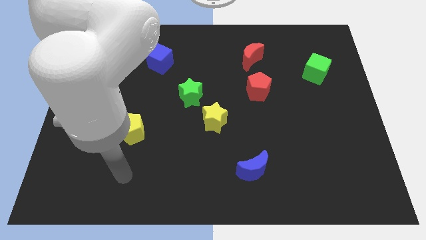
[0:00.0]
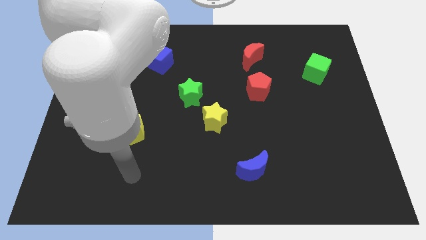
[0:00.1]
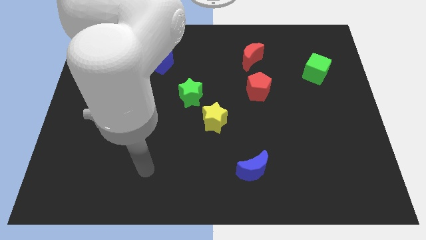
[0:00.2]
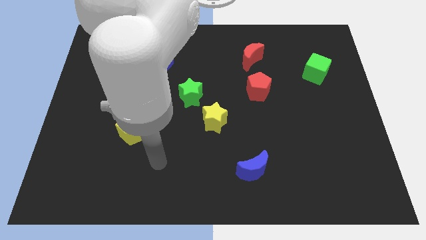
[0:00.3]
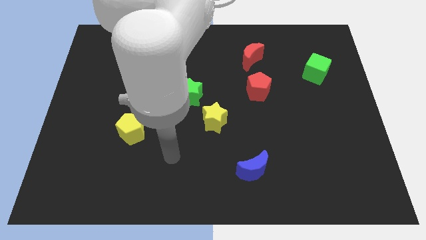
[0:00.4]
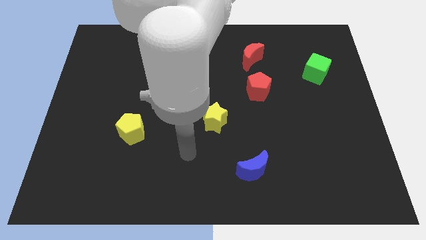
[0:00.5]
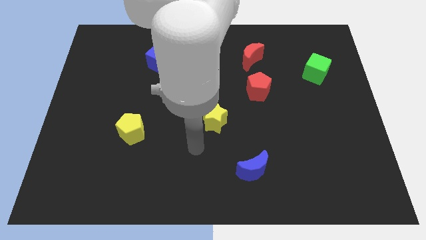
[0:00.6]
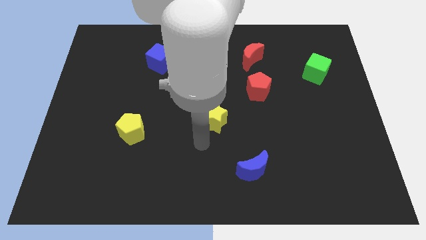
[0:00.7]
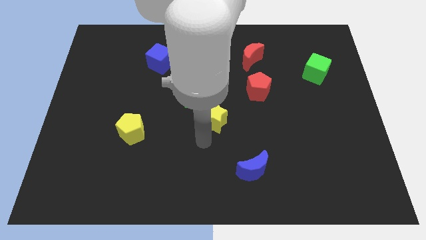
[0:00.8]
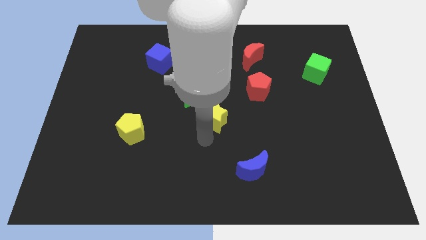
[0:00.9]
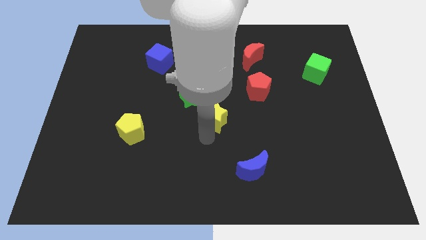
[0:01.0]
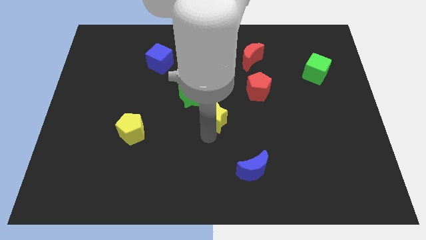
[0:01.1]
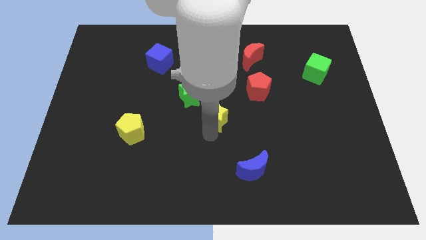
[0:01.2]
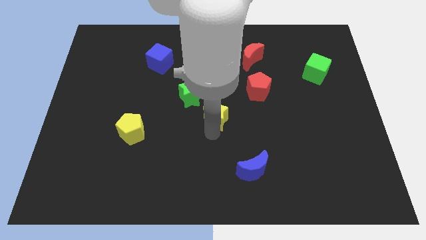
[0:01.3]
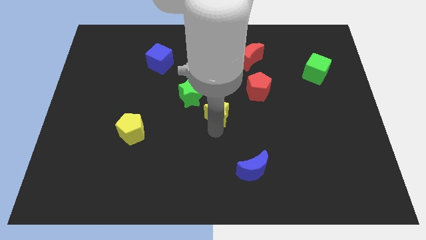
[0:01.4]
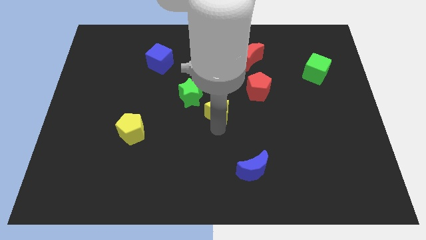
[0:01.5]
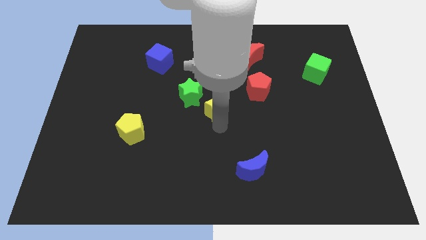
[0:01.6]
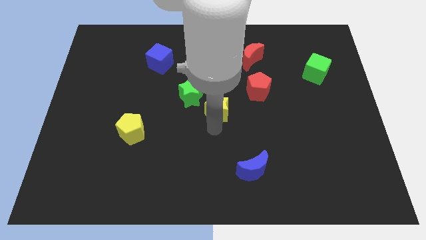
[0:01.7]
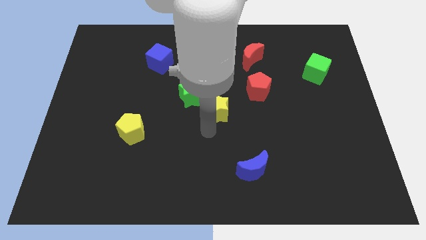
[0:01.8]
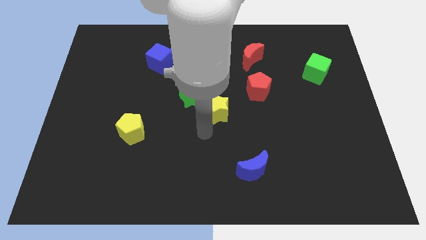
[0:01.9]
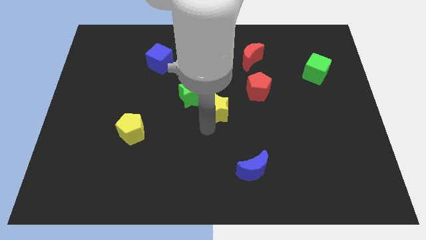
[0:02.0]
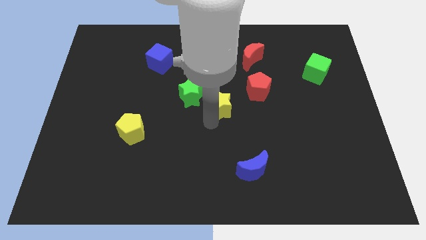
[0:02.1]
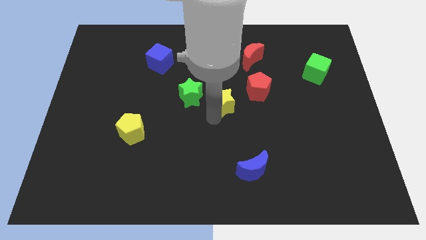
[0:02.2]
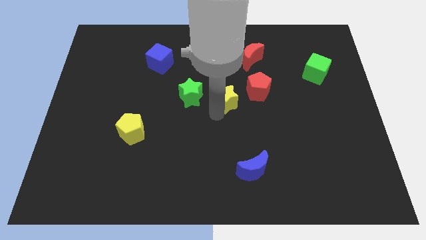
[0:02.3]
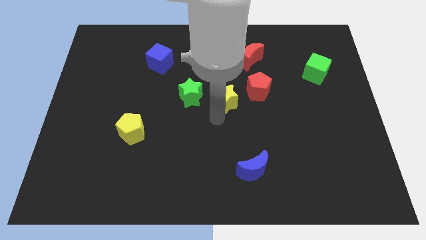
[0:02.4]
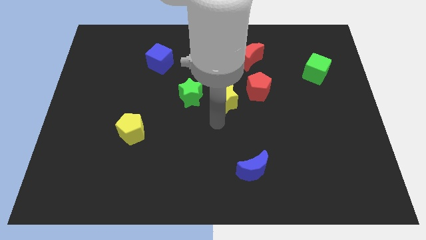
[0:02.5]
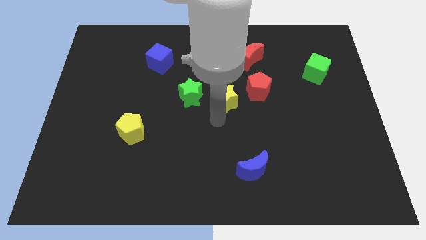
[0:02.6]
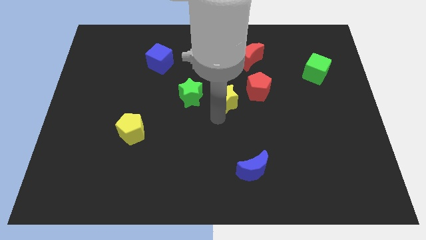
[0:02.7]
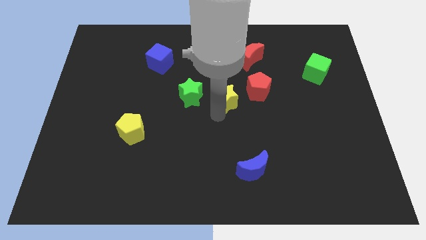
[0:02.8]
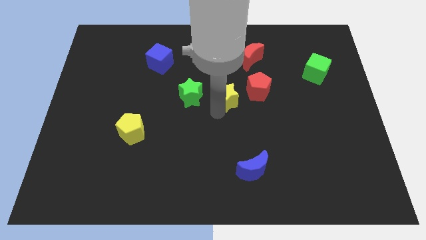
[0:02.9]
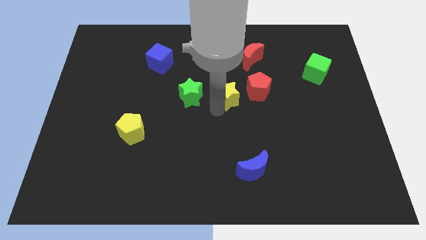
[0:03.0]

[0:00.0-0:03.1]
slightly slide the yellow star diagonally upwards and to the right

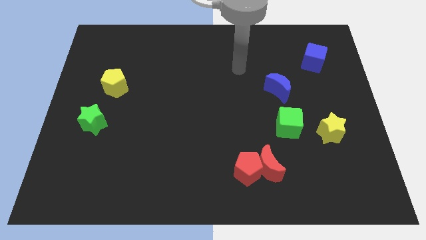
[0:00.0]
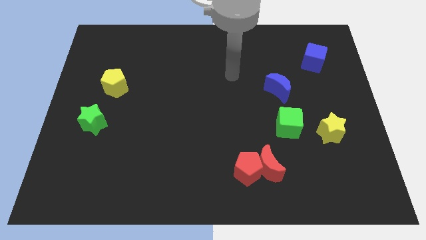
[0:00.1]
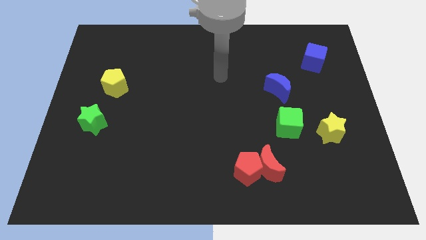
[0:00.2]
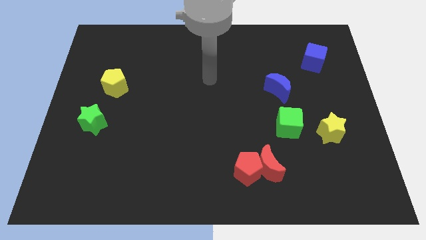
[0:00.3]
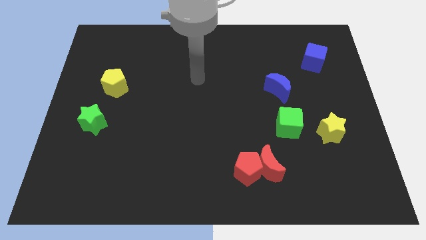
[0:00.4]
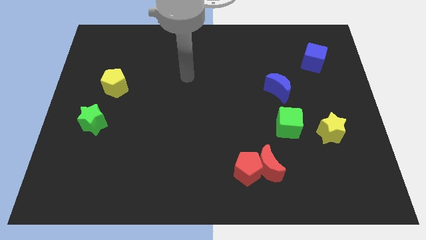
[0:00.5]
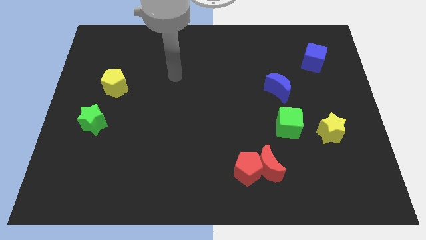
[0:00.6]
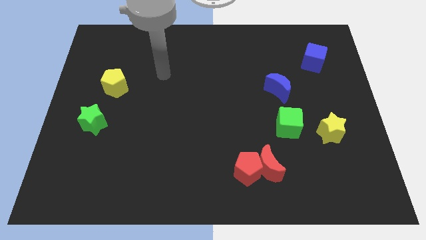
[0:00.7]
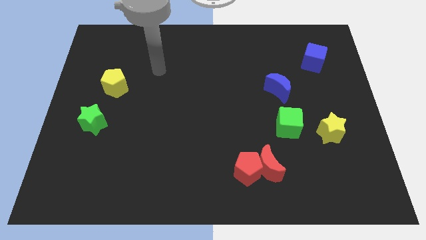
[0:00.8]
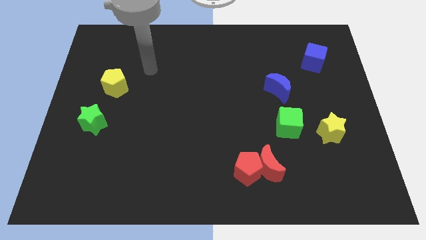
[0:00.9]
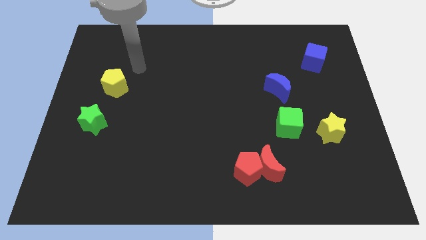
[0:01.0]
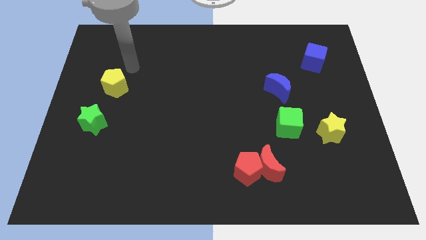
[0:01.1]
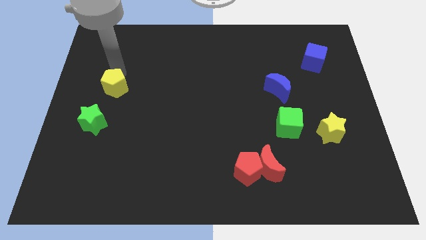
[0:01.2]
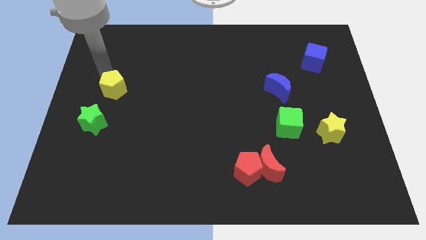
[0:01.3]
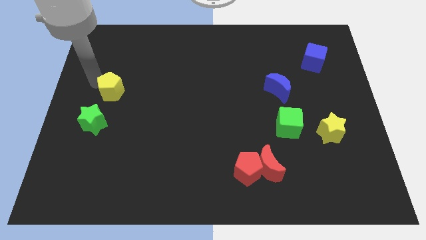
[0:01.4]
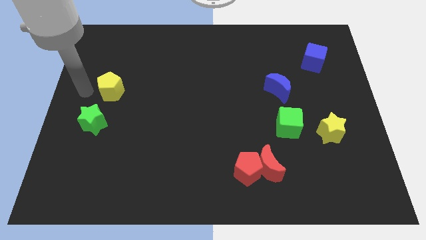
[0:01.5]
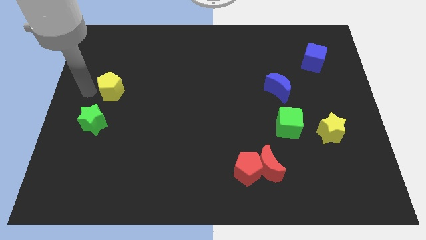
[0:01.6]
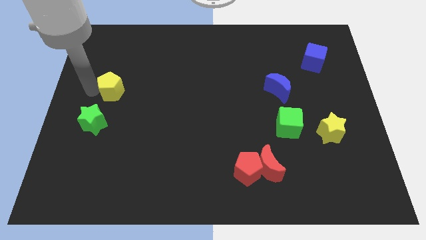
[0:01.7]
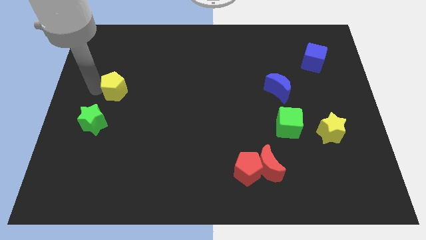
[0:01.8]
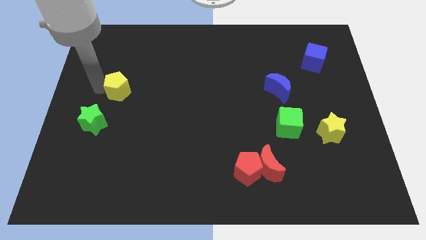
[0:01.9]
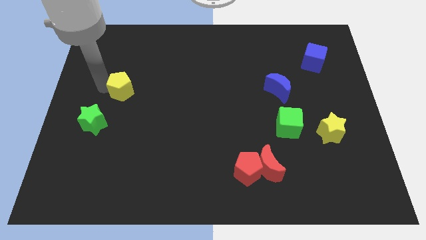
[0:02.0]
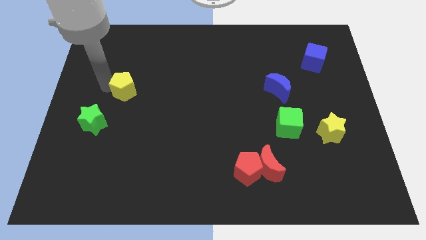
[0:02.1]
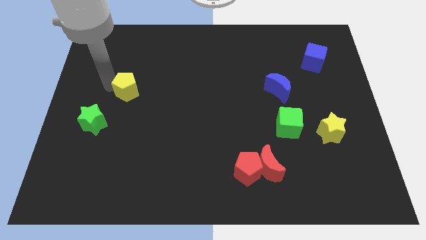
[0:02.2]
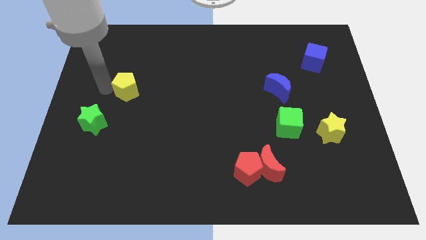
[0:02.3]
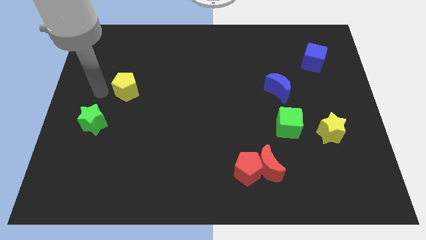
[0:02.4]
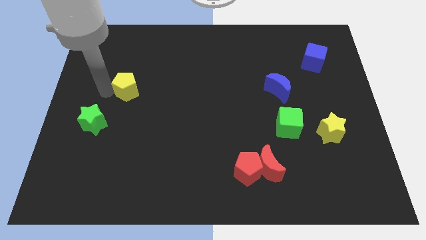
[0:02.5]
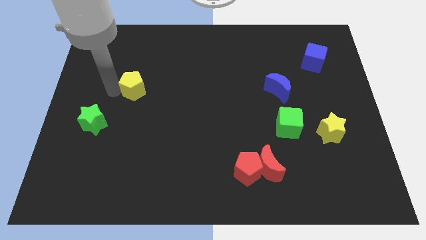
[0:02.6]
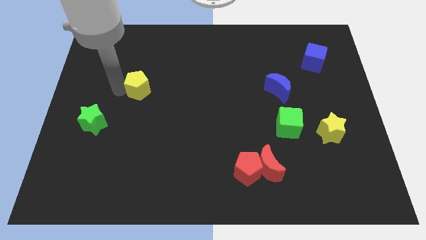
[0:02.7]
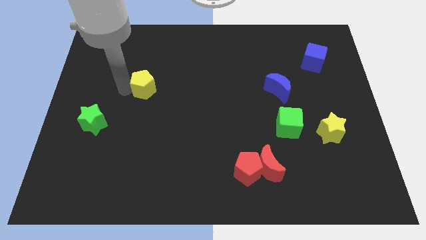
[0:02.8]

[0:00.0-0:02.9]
move the yellow pentagon to the right a little

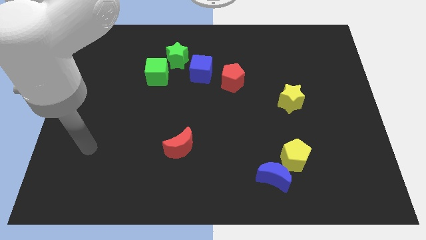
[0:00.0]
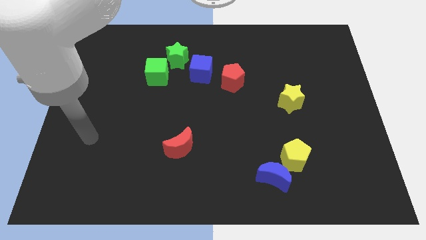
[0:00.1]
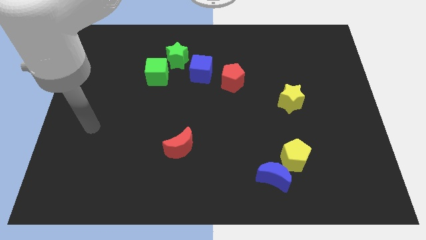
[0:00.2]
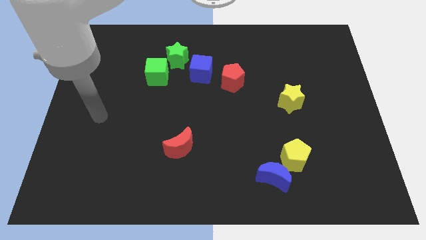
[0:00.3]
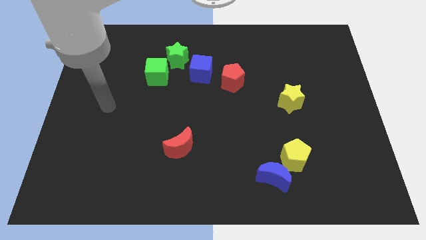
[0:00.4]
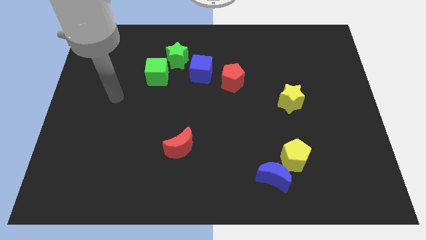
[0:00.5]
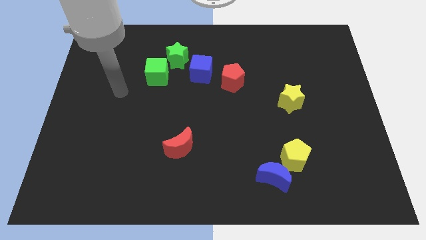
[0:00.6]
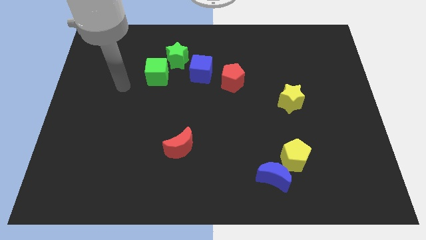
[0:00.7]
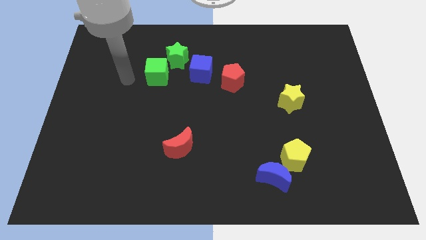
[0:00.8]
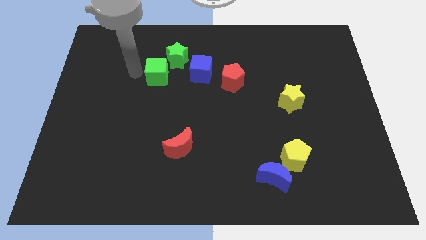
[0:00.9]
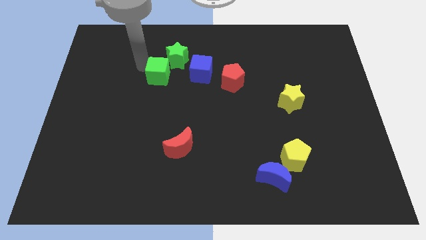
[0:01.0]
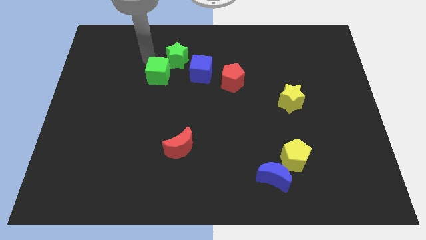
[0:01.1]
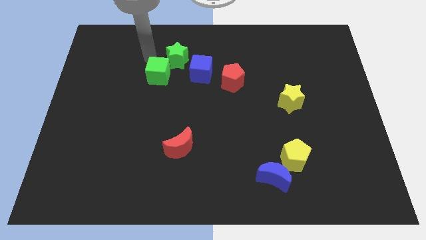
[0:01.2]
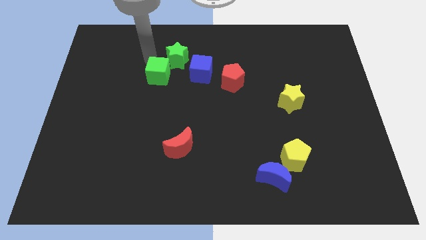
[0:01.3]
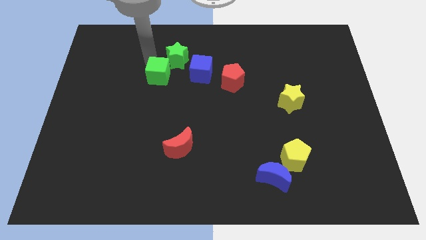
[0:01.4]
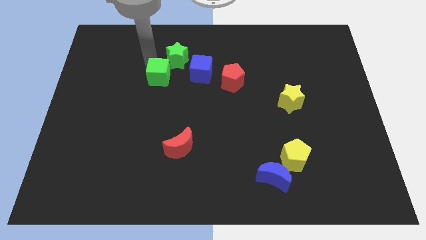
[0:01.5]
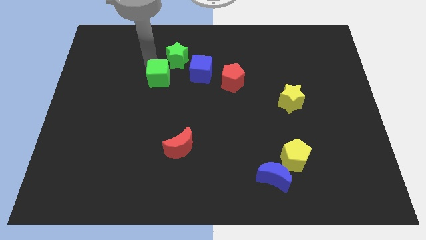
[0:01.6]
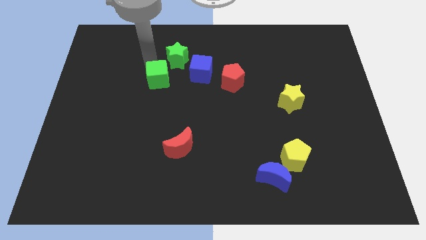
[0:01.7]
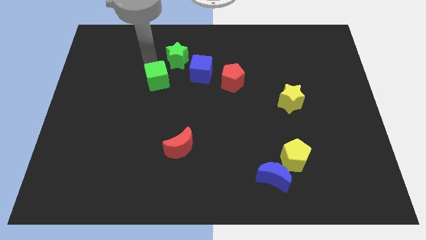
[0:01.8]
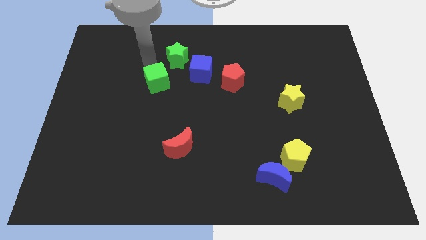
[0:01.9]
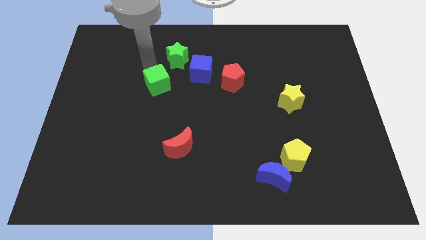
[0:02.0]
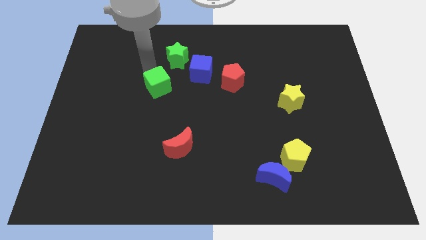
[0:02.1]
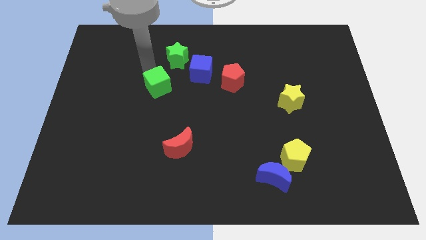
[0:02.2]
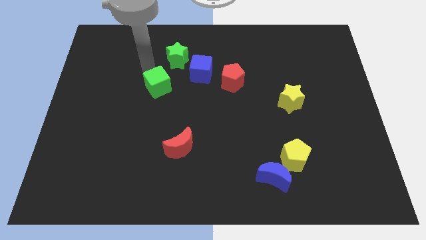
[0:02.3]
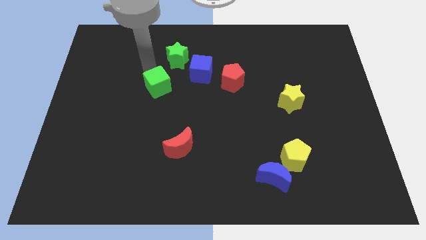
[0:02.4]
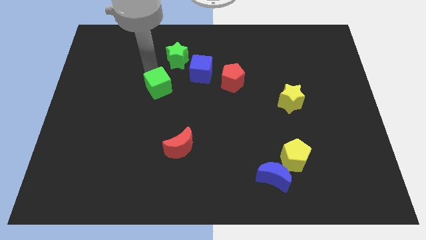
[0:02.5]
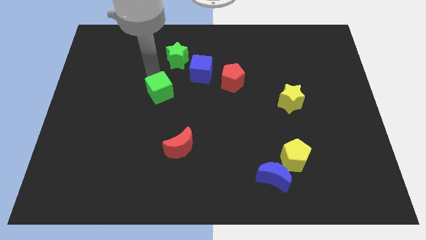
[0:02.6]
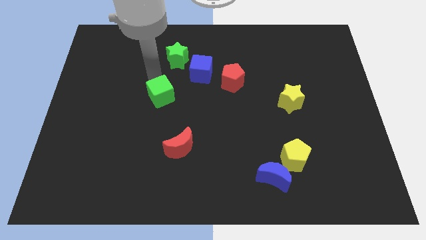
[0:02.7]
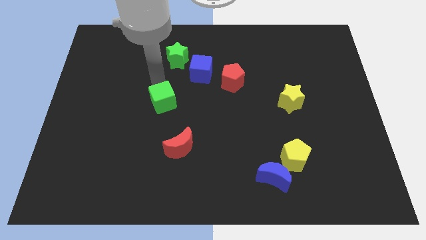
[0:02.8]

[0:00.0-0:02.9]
slightly push the green cube down
